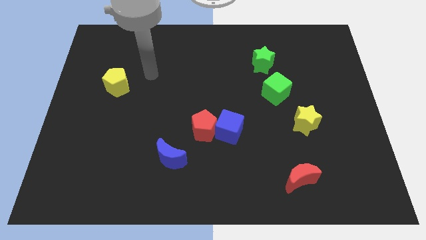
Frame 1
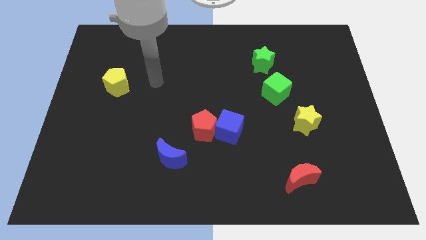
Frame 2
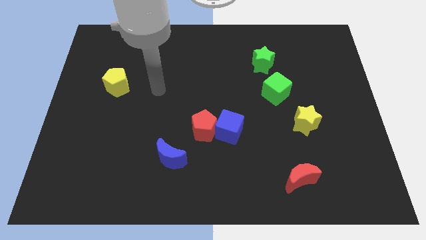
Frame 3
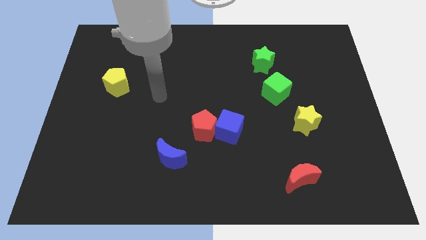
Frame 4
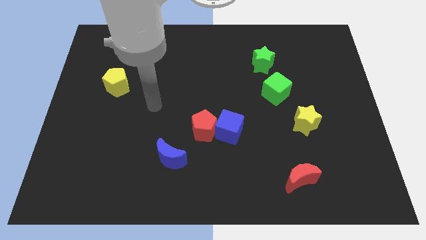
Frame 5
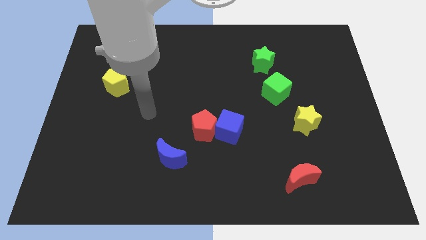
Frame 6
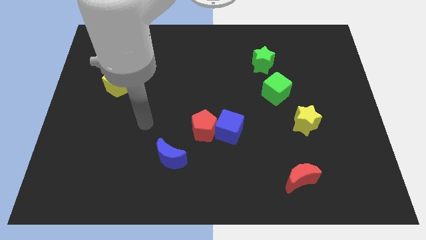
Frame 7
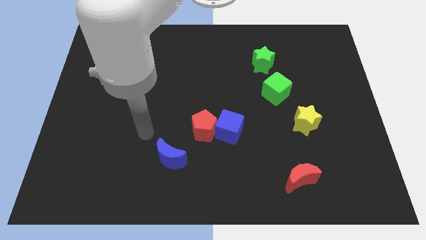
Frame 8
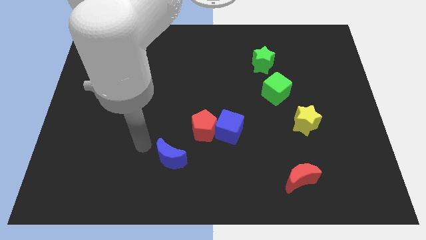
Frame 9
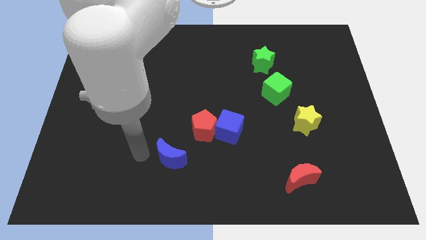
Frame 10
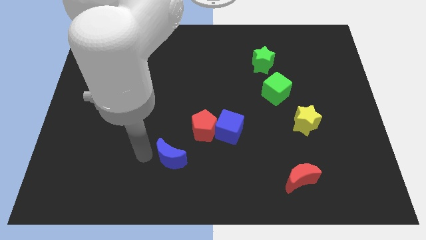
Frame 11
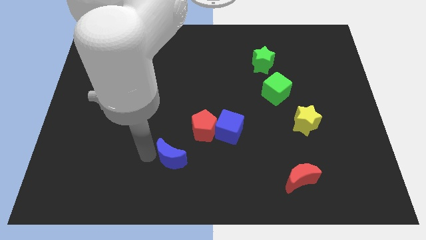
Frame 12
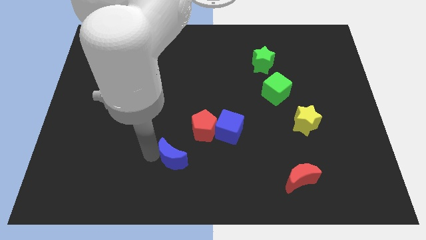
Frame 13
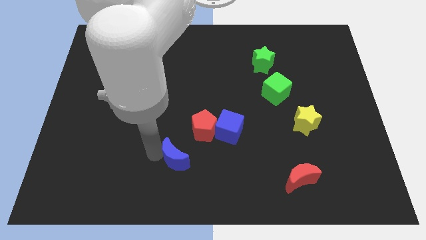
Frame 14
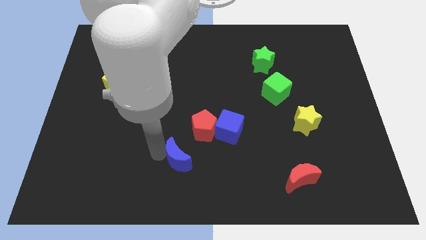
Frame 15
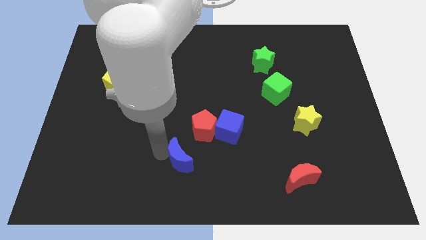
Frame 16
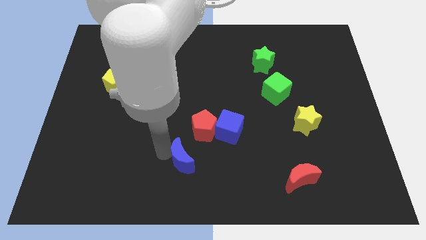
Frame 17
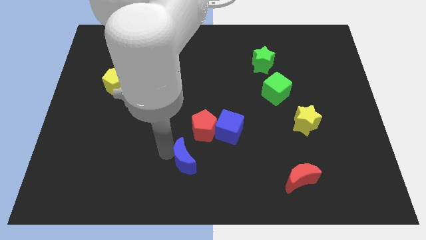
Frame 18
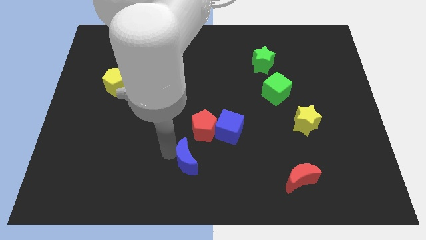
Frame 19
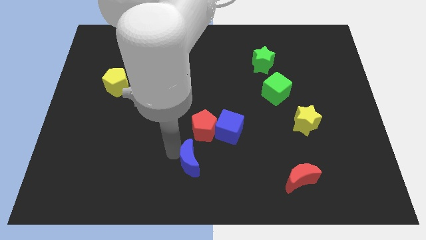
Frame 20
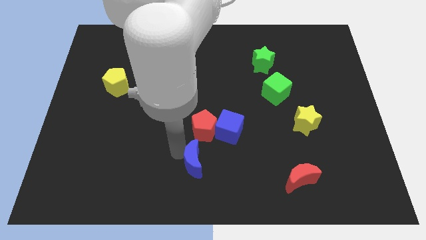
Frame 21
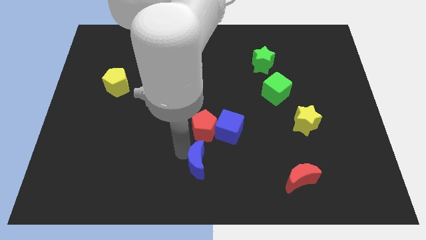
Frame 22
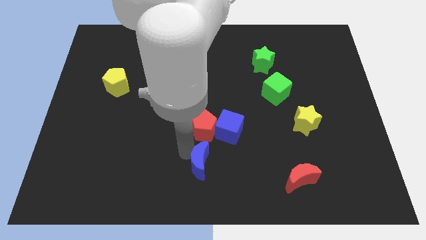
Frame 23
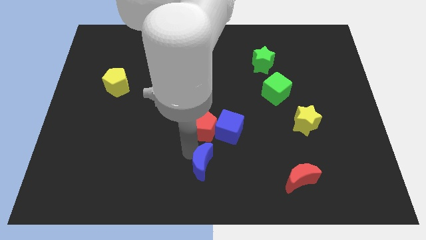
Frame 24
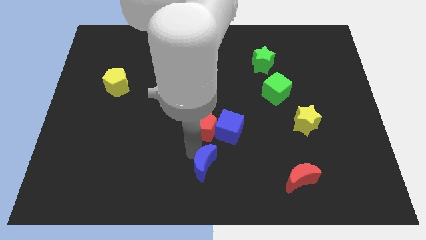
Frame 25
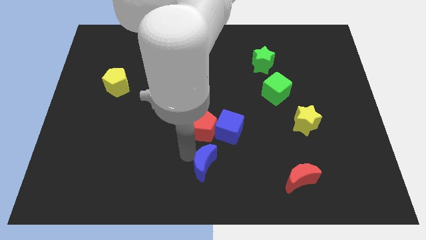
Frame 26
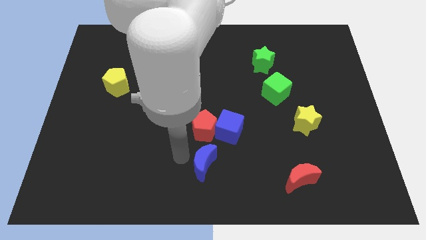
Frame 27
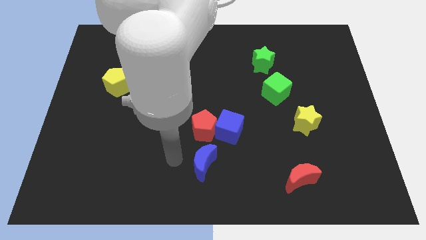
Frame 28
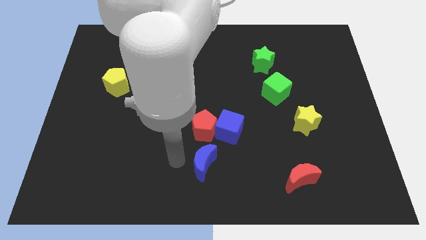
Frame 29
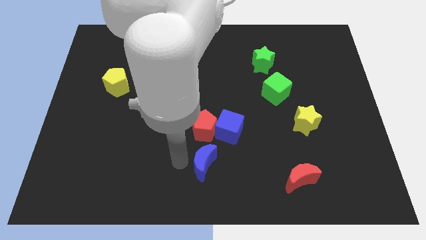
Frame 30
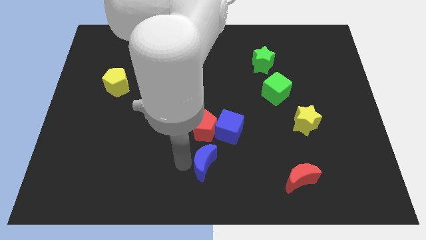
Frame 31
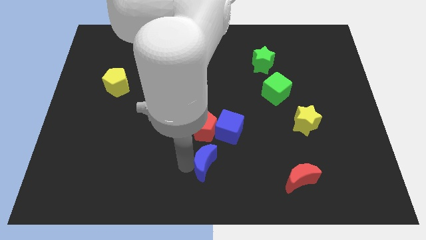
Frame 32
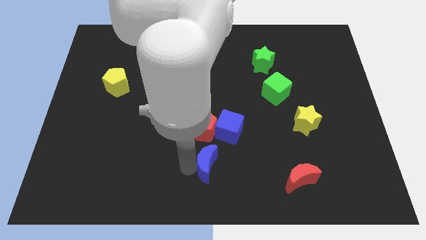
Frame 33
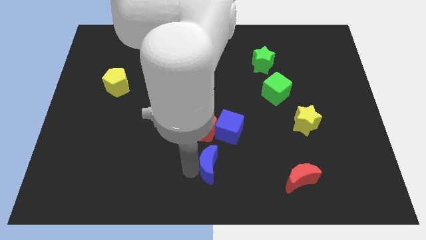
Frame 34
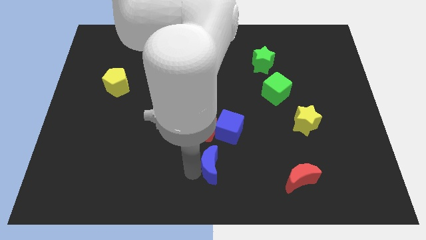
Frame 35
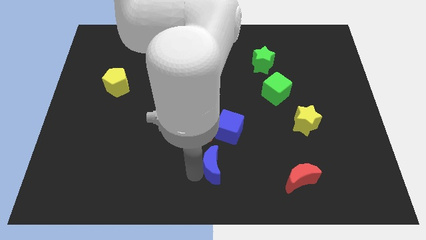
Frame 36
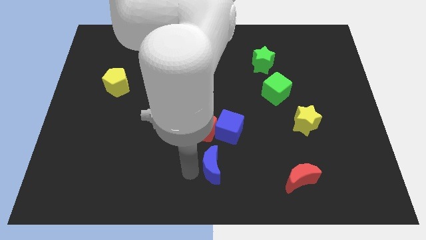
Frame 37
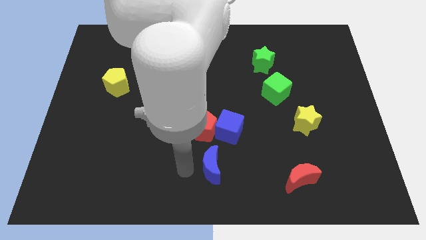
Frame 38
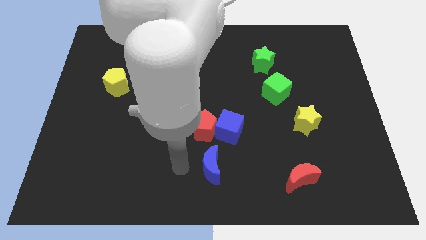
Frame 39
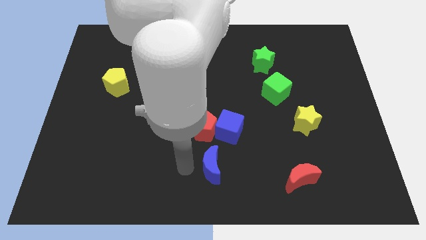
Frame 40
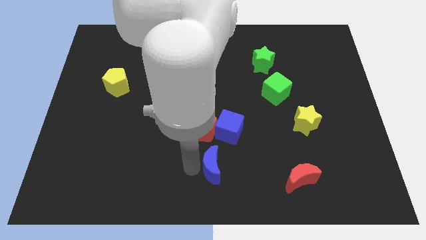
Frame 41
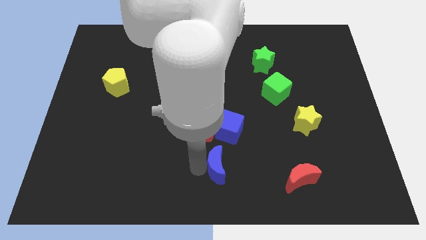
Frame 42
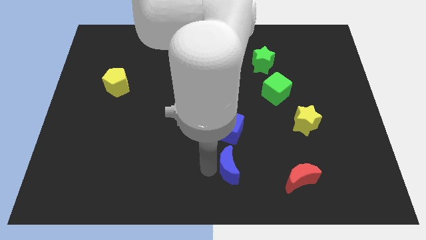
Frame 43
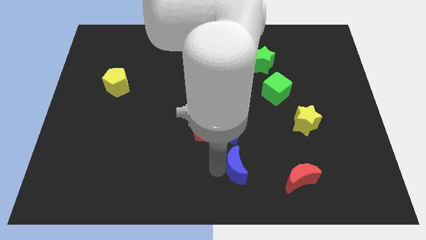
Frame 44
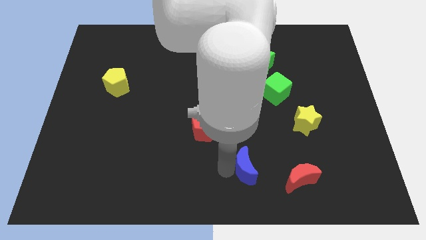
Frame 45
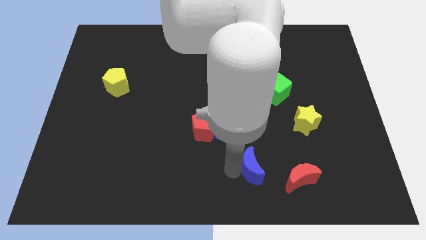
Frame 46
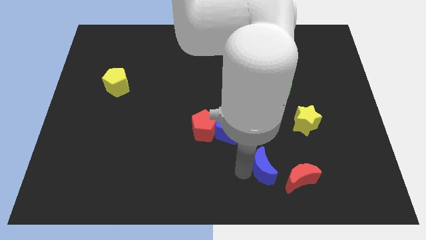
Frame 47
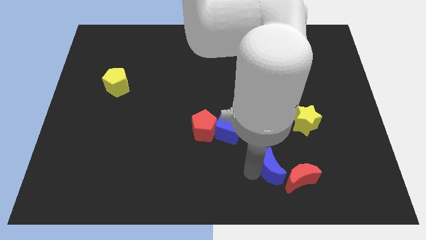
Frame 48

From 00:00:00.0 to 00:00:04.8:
slide the blue moon to the right

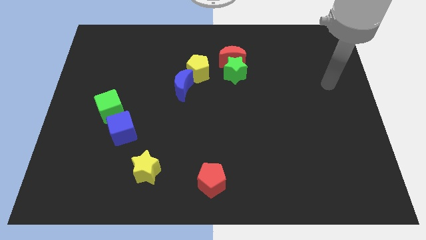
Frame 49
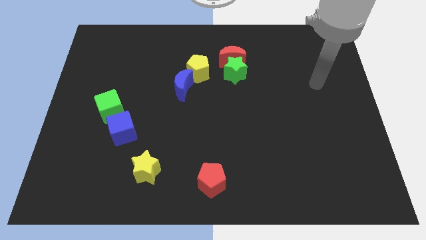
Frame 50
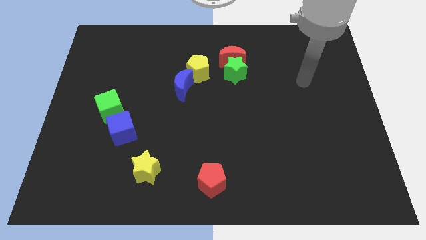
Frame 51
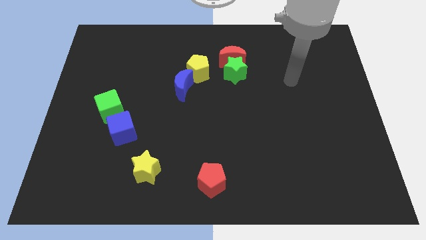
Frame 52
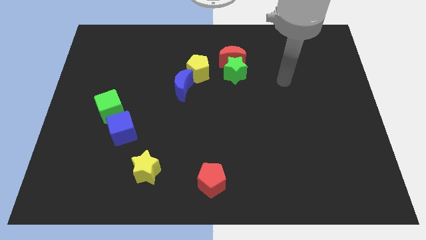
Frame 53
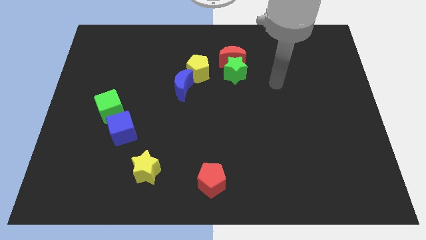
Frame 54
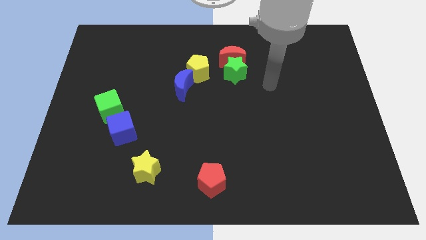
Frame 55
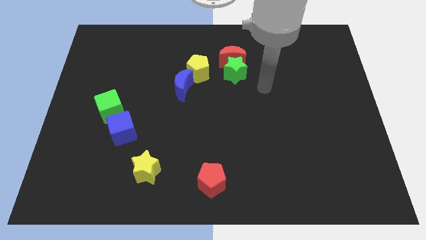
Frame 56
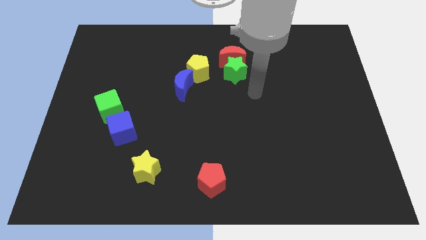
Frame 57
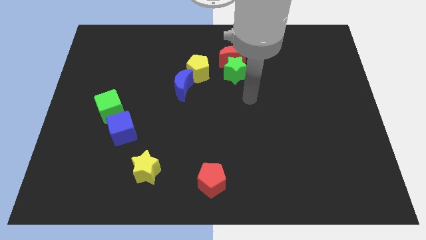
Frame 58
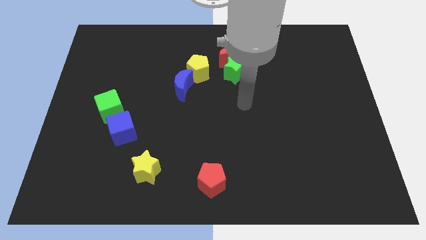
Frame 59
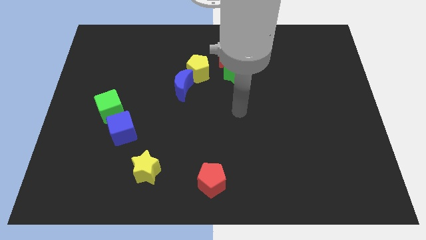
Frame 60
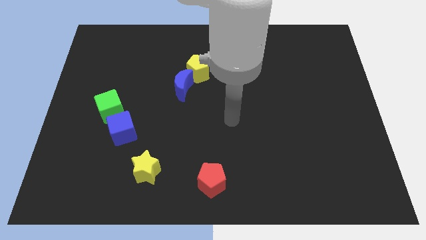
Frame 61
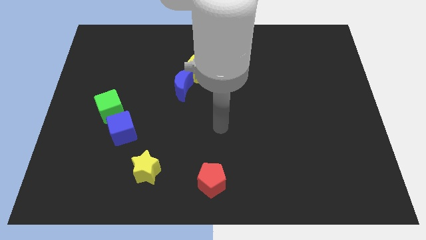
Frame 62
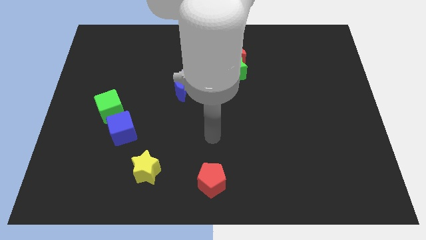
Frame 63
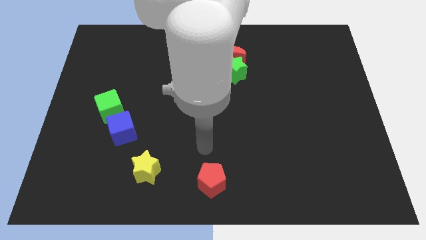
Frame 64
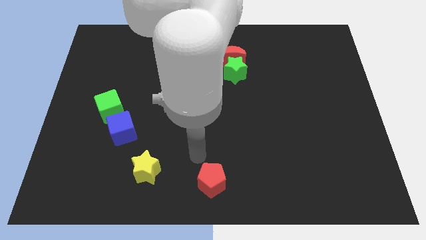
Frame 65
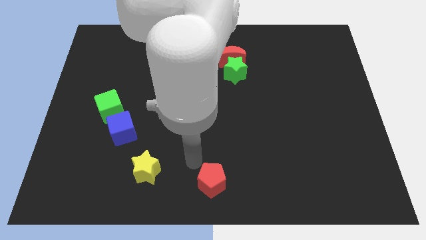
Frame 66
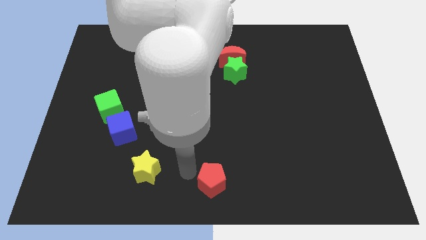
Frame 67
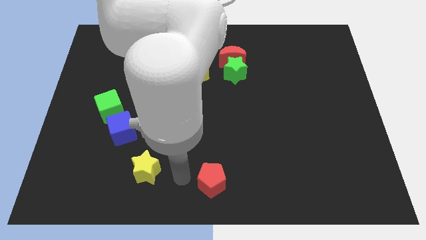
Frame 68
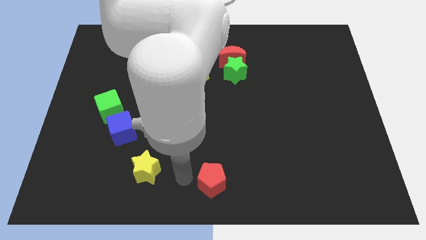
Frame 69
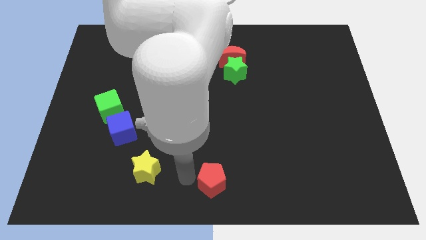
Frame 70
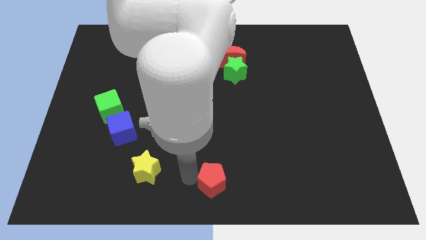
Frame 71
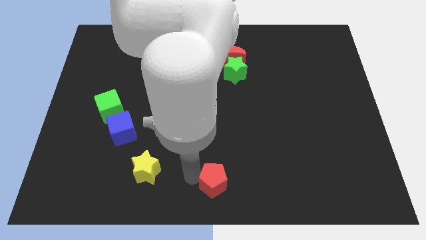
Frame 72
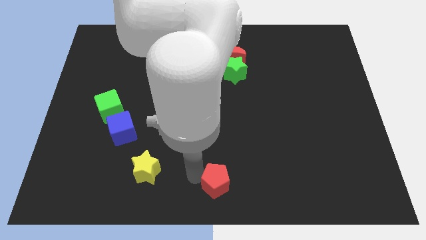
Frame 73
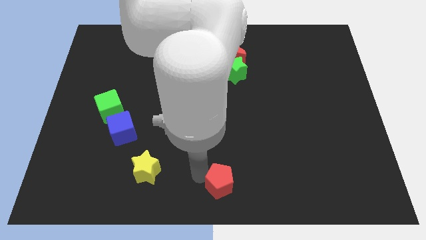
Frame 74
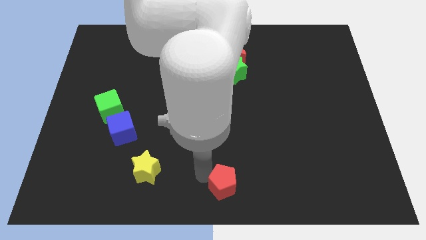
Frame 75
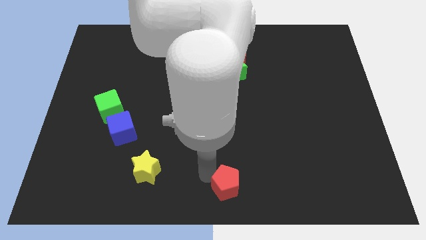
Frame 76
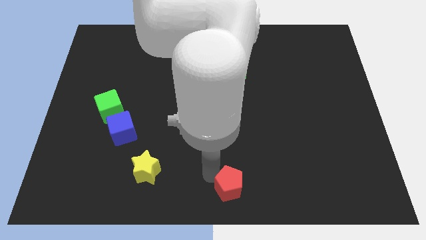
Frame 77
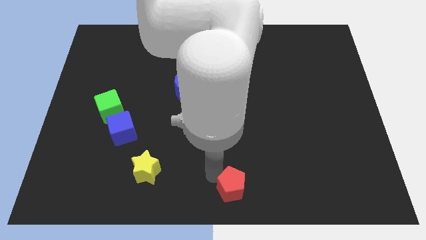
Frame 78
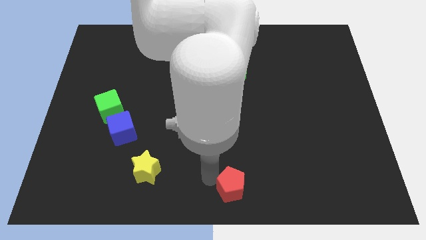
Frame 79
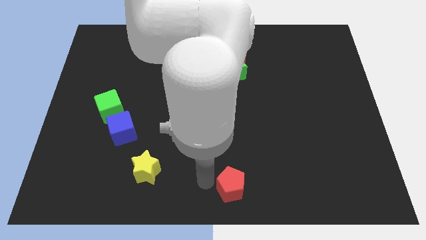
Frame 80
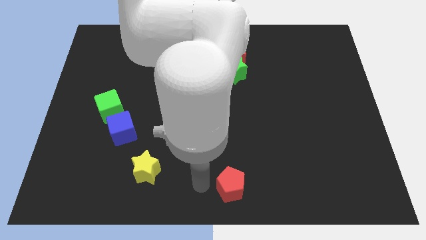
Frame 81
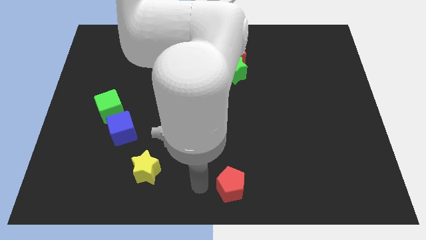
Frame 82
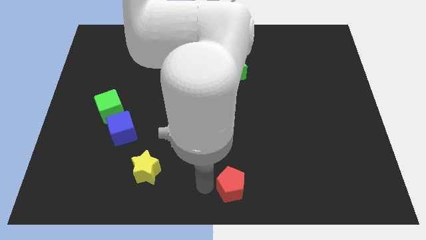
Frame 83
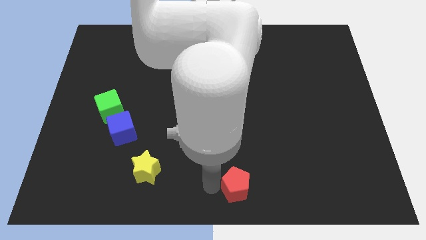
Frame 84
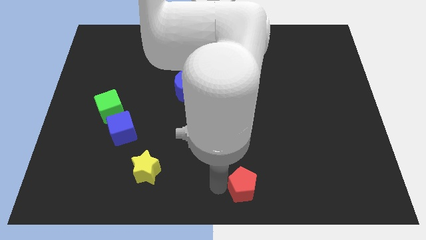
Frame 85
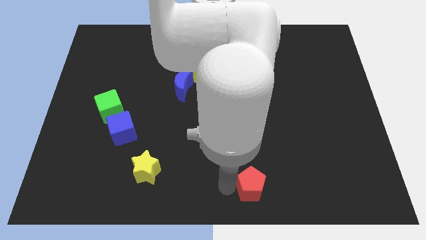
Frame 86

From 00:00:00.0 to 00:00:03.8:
push the red pentagon somewhat to the right
